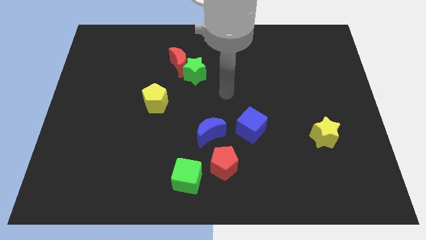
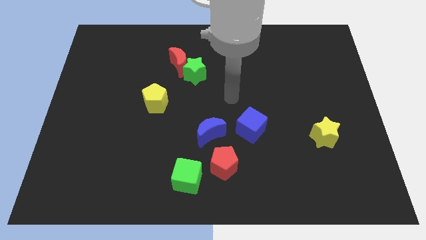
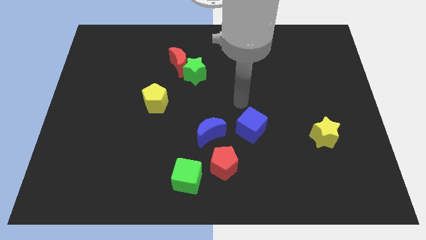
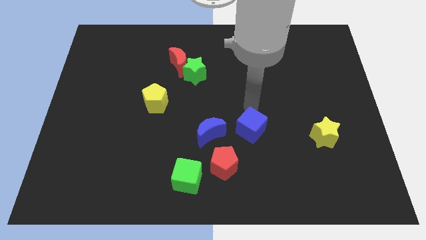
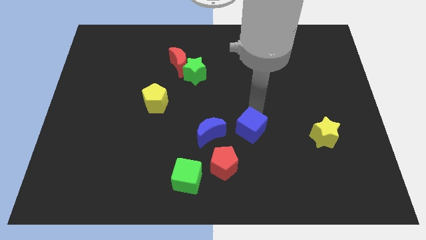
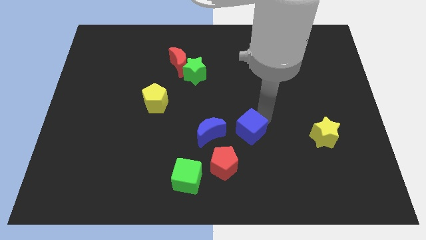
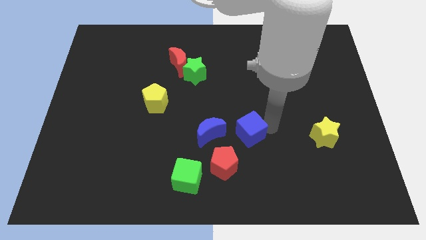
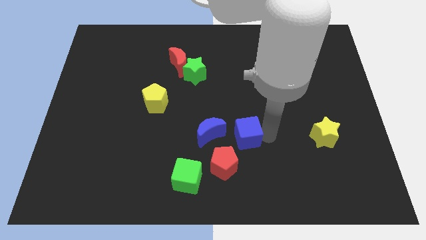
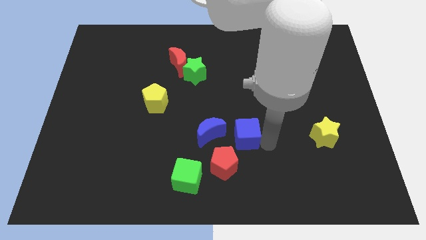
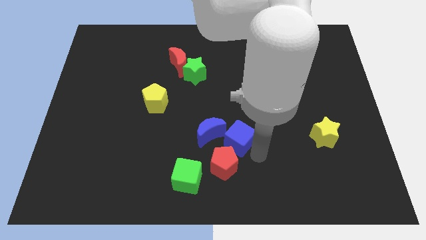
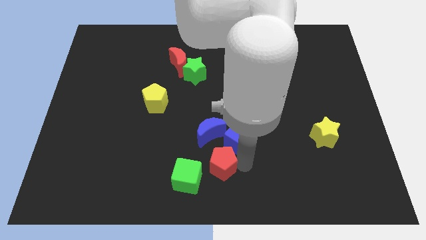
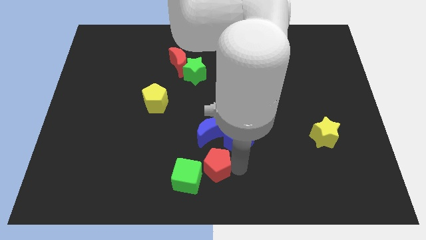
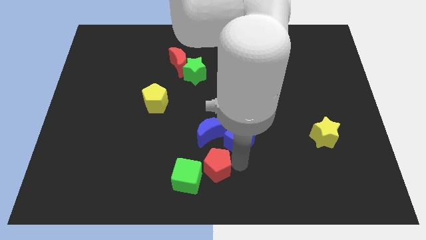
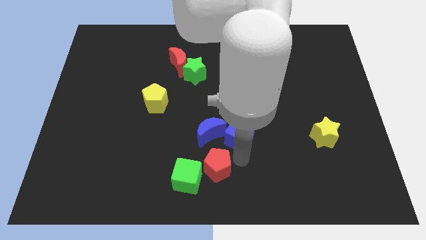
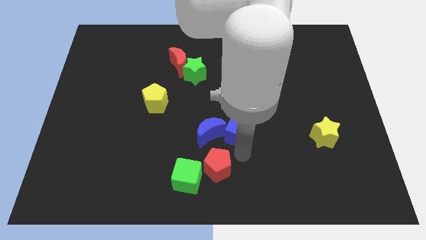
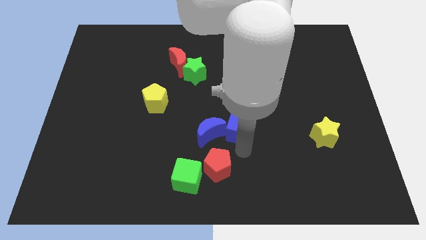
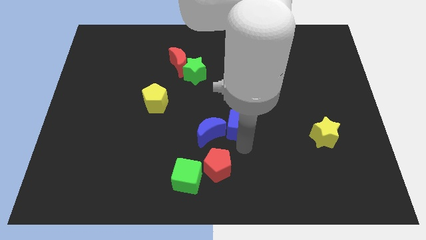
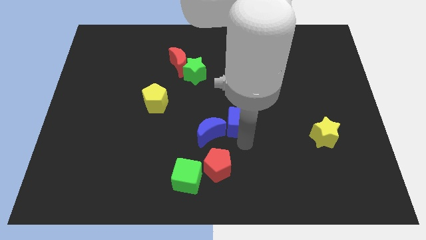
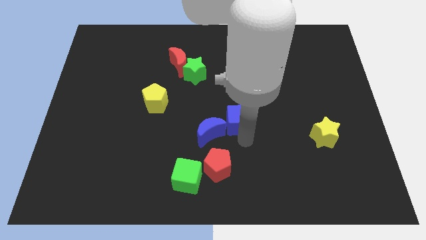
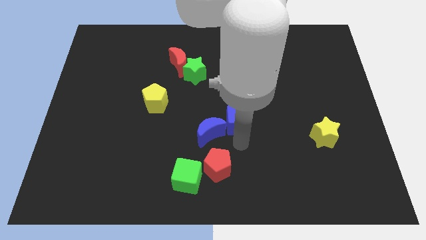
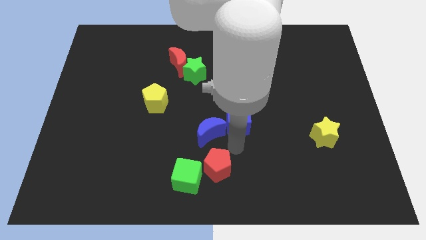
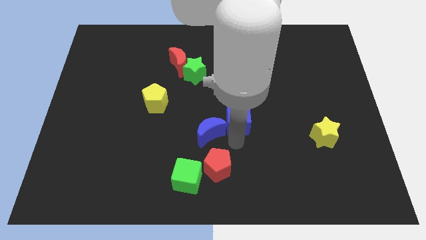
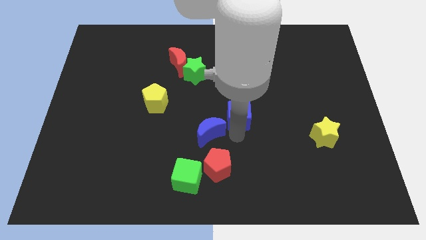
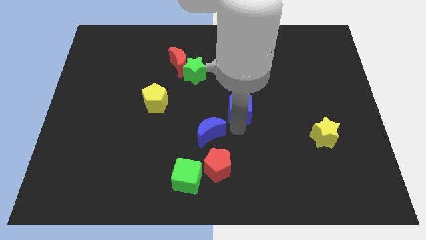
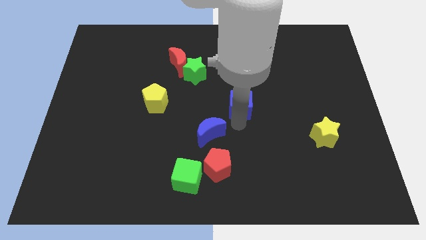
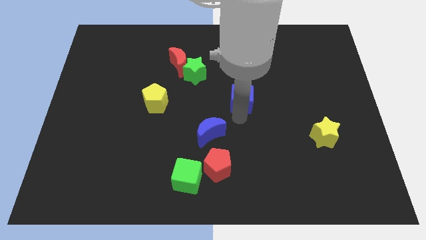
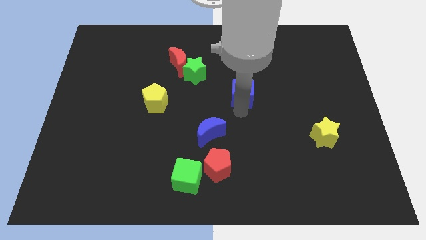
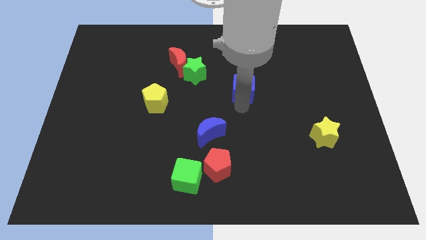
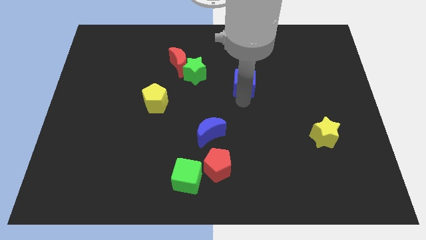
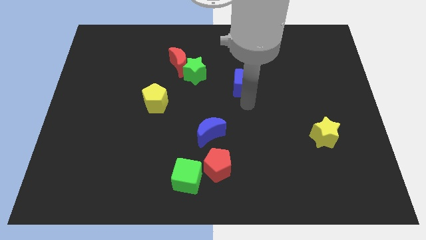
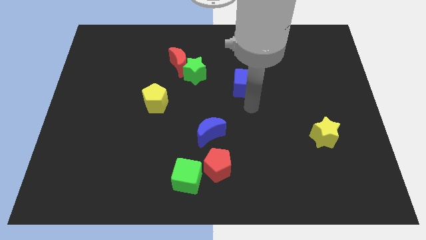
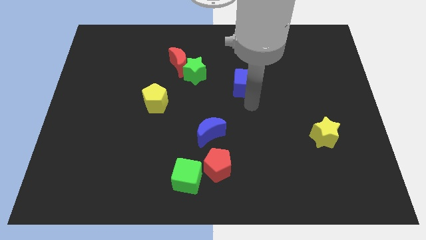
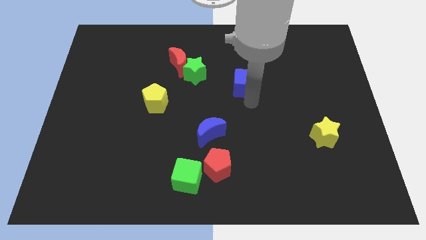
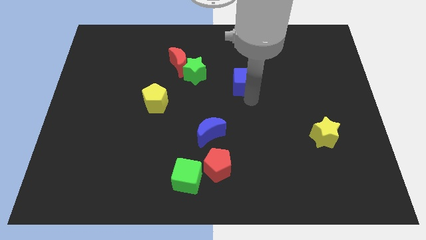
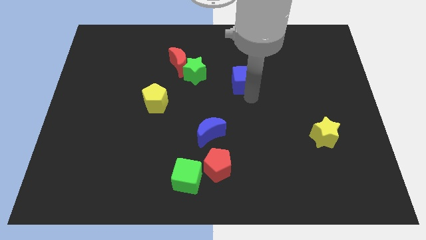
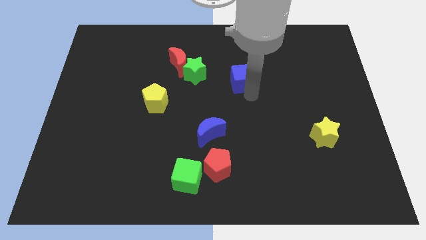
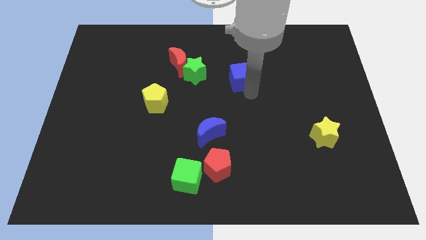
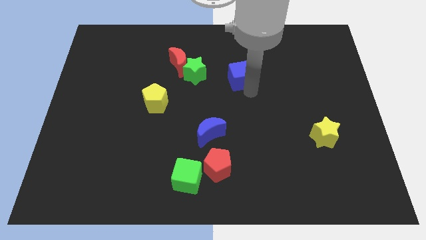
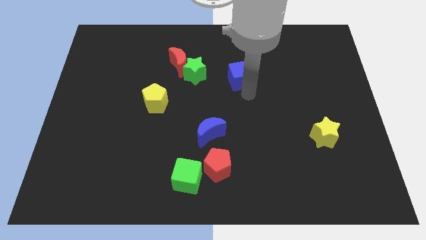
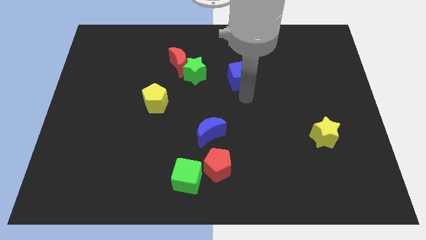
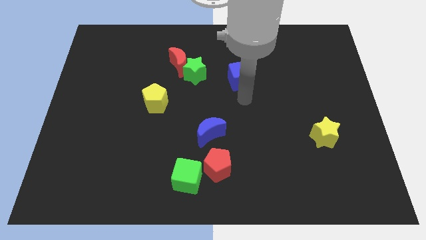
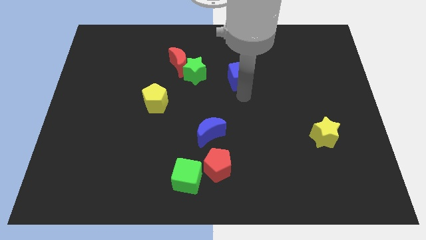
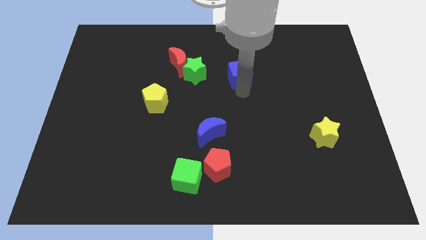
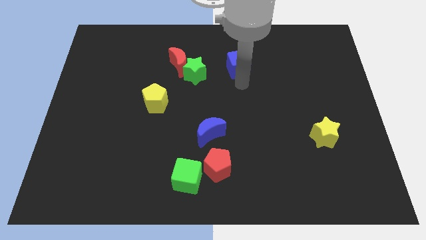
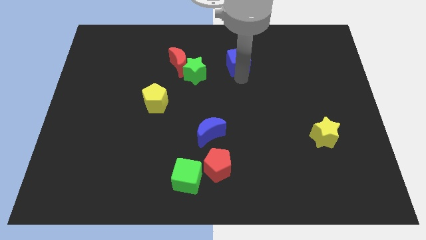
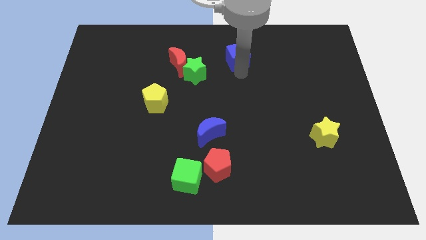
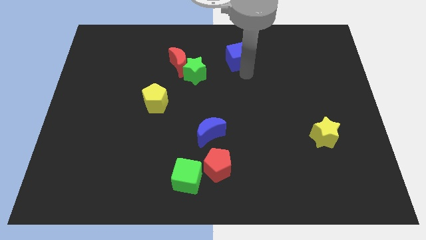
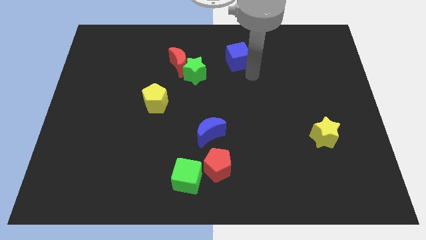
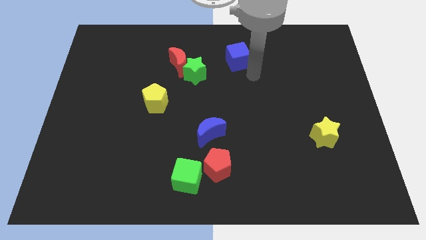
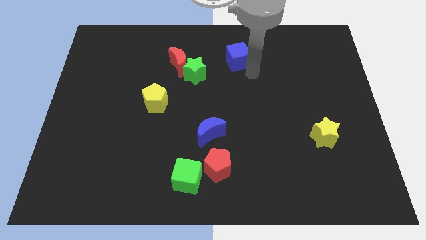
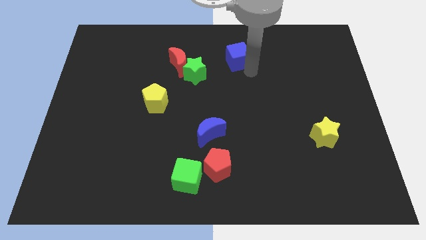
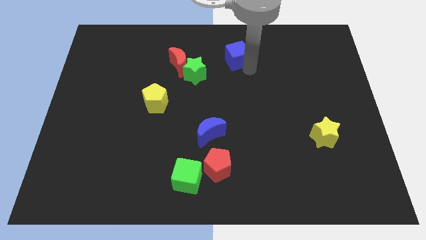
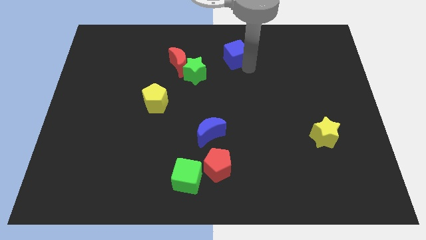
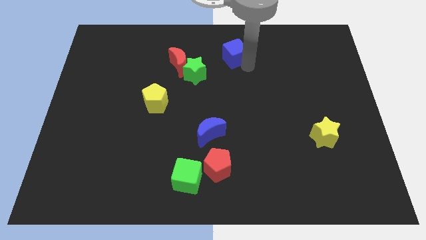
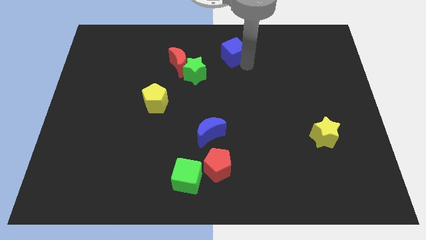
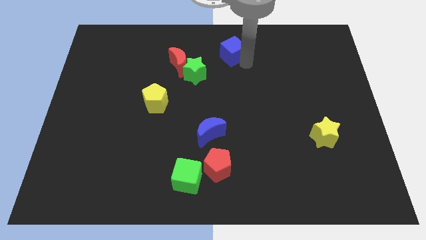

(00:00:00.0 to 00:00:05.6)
slide the blue cube to the top side

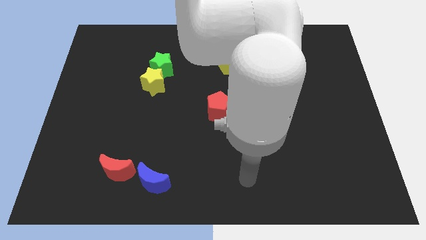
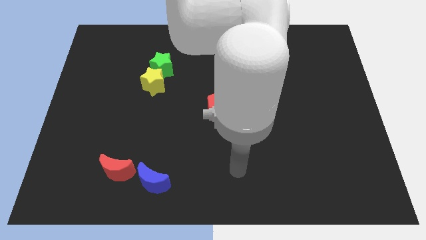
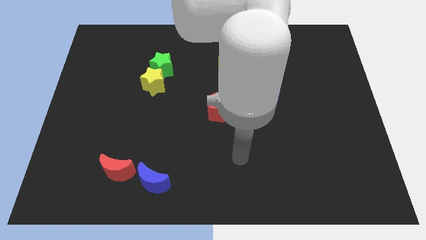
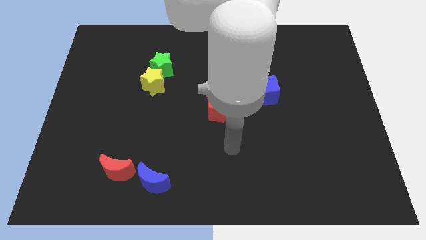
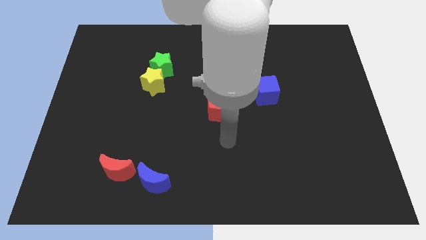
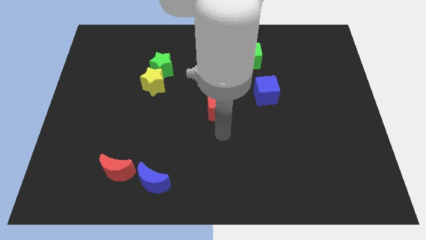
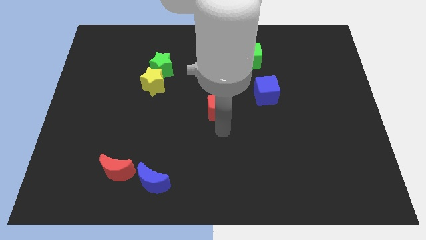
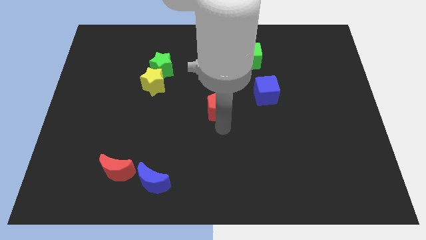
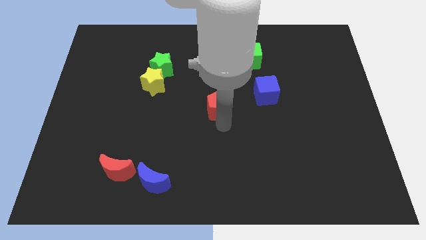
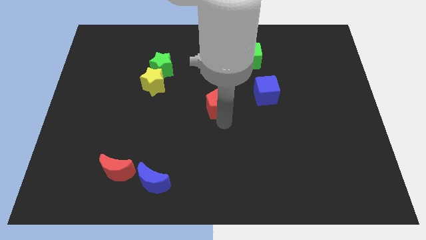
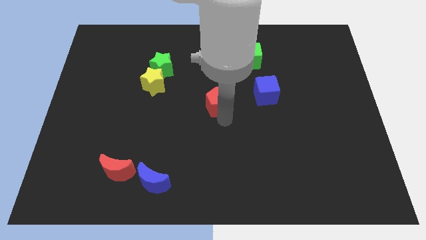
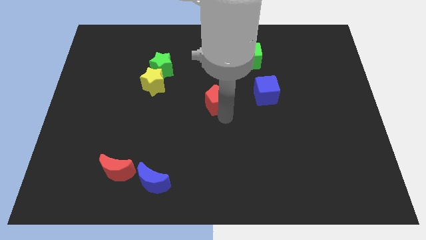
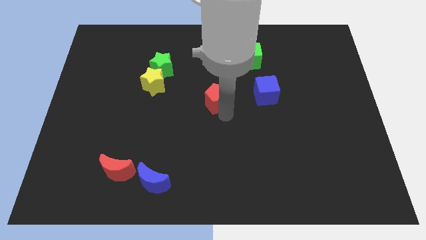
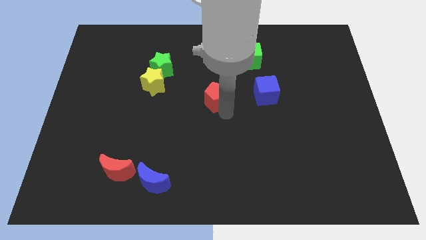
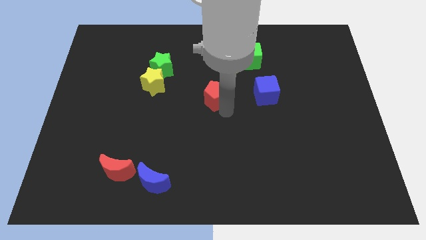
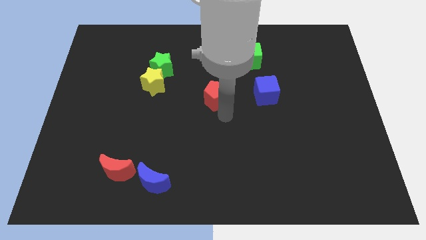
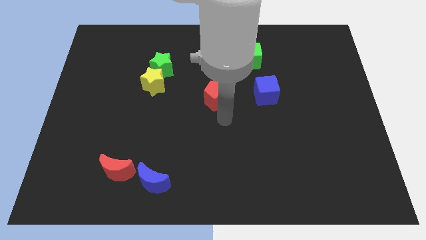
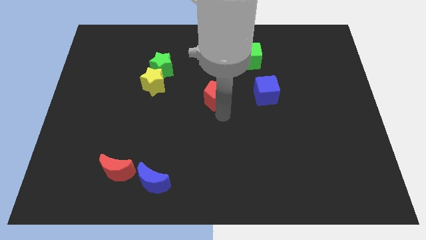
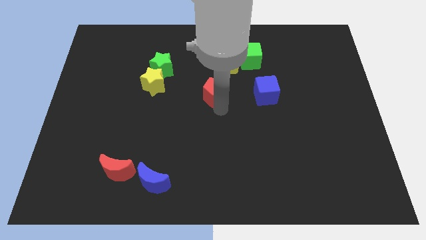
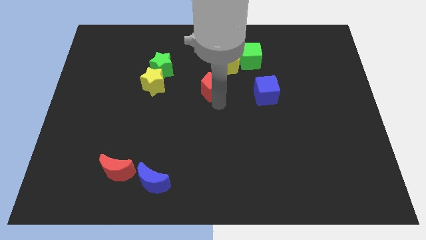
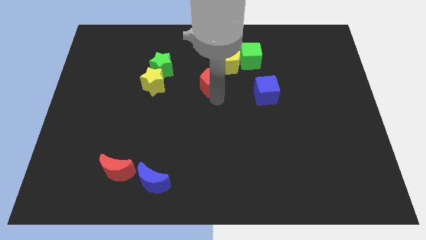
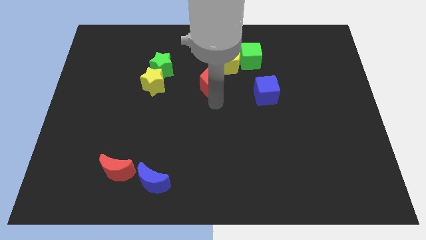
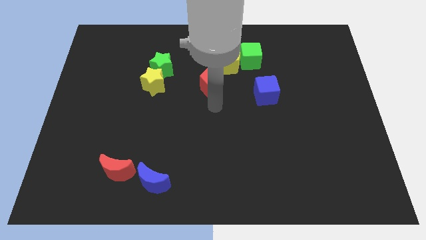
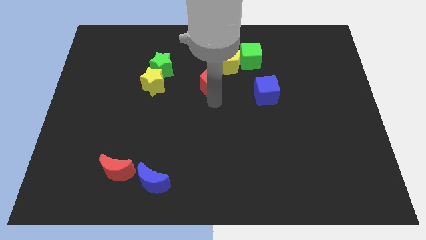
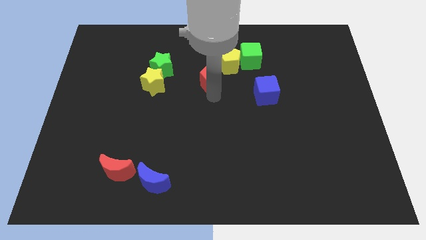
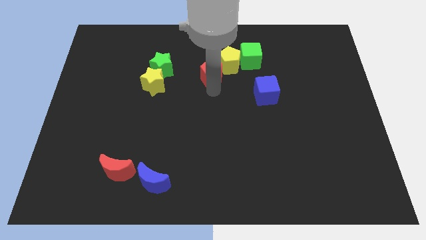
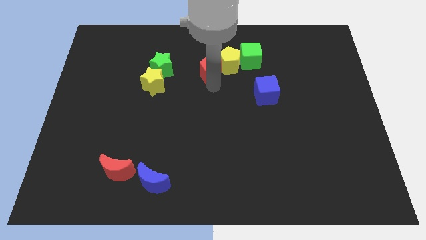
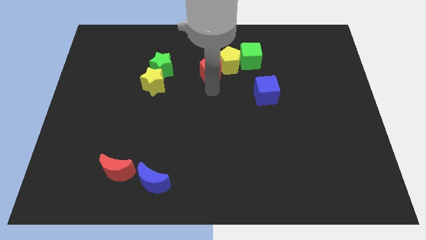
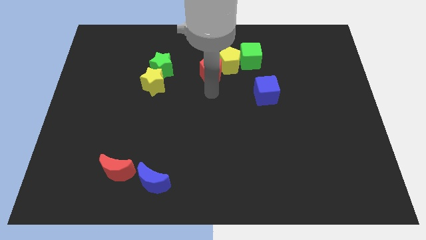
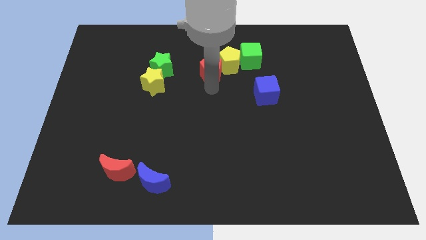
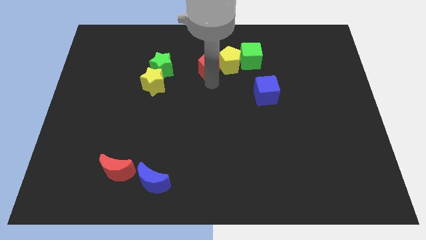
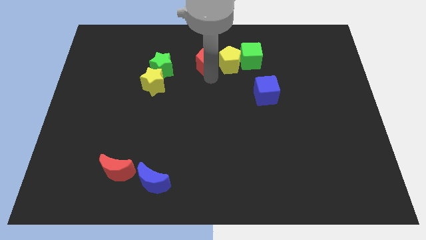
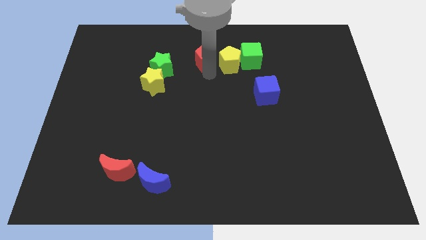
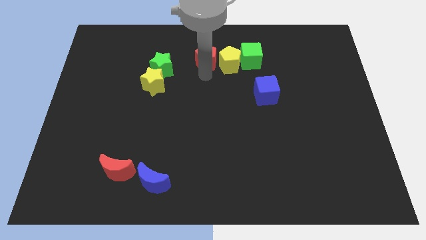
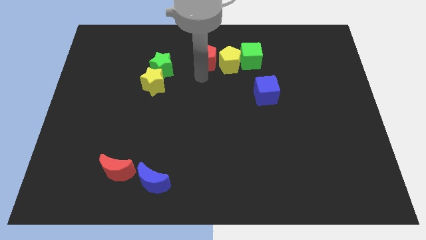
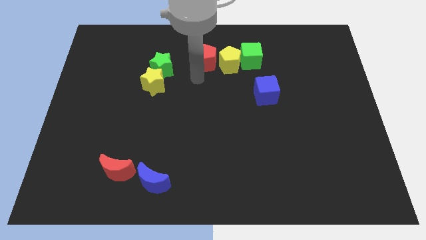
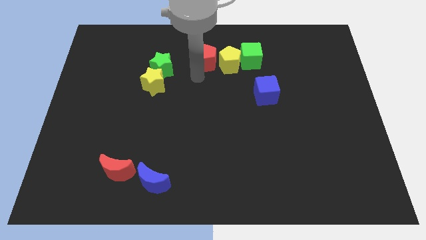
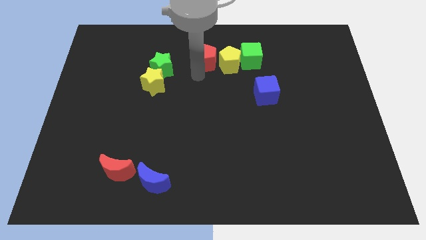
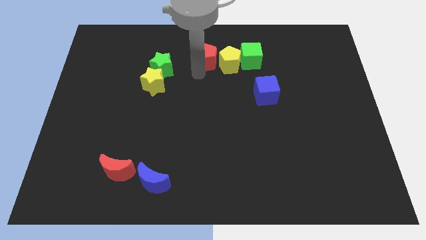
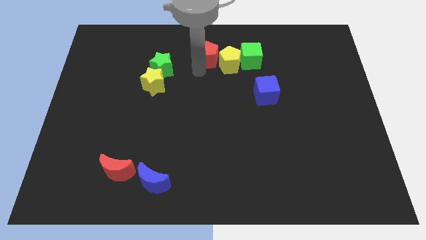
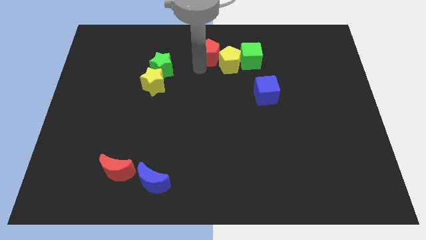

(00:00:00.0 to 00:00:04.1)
push the red pentagon to the towards your base
